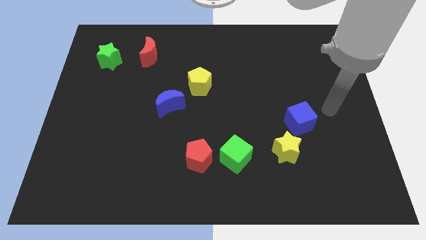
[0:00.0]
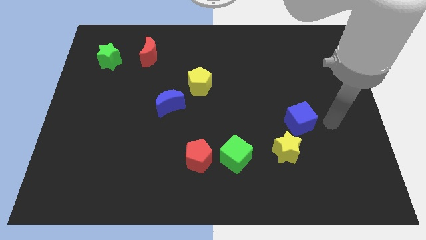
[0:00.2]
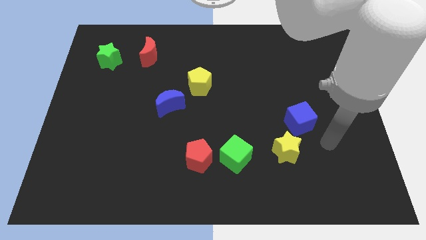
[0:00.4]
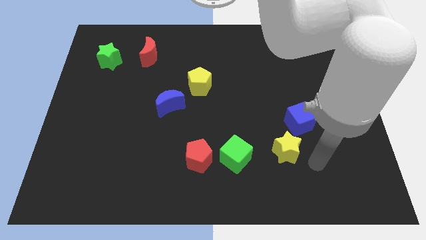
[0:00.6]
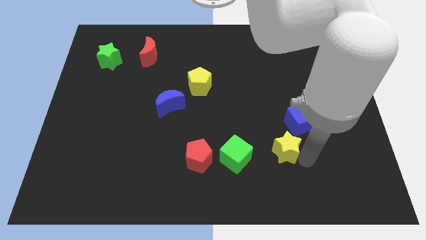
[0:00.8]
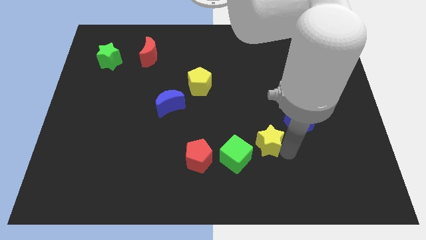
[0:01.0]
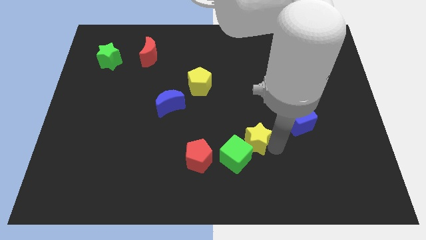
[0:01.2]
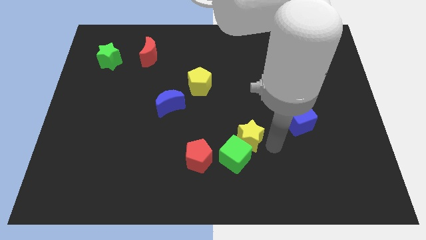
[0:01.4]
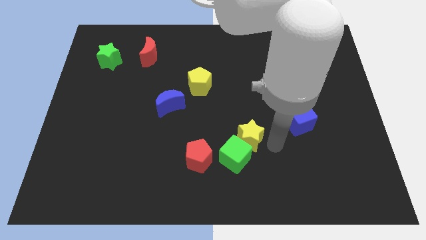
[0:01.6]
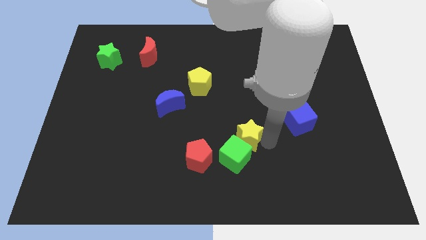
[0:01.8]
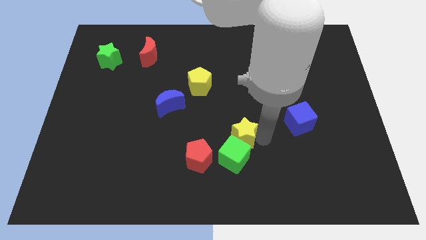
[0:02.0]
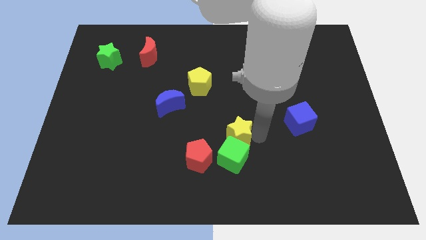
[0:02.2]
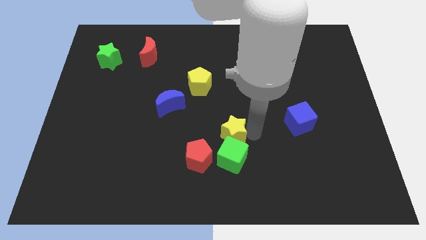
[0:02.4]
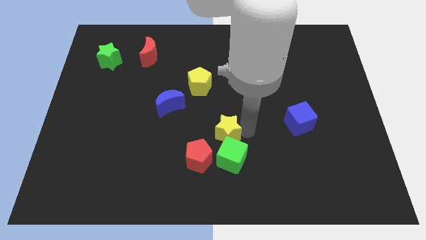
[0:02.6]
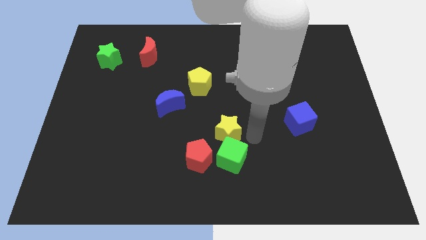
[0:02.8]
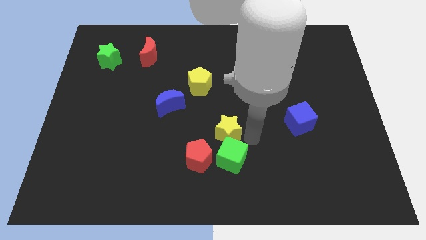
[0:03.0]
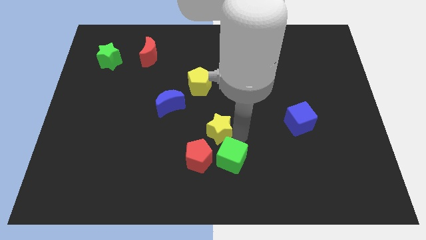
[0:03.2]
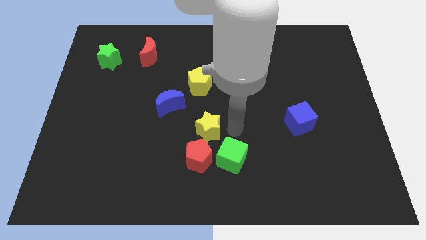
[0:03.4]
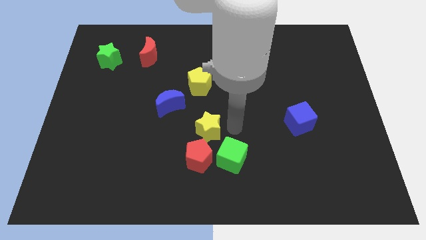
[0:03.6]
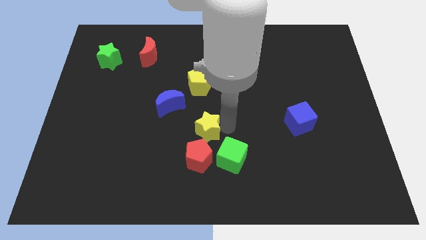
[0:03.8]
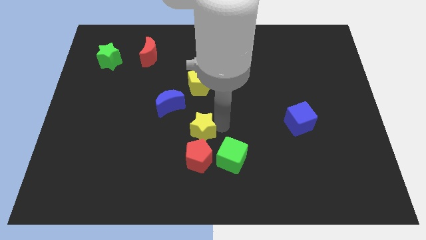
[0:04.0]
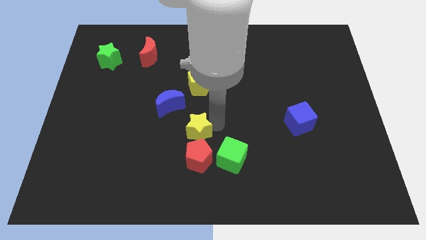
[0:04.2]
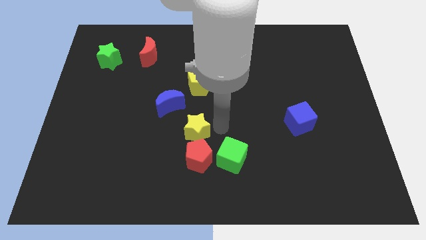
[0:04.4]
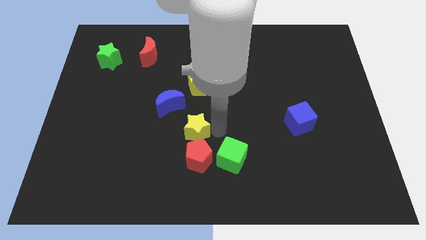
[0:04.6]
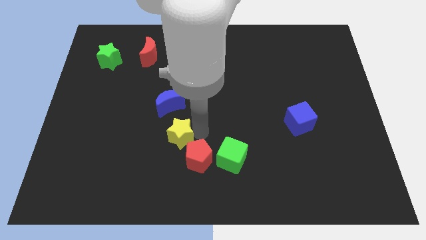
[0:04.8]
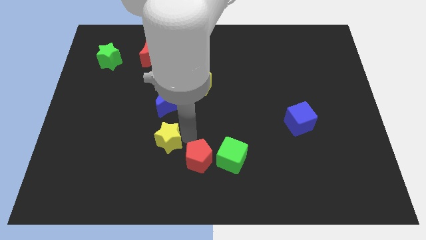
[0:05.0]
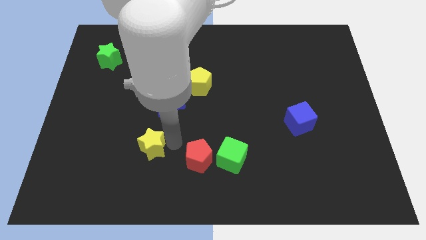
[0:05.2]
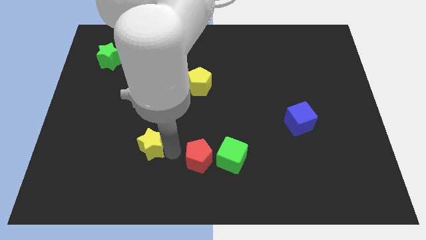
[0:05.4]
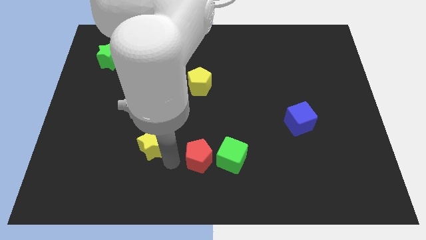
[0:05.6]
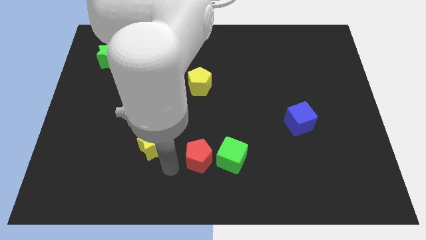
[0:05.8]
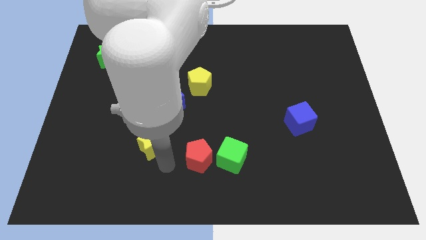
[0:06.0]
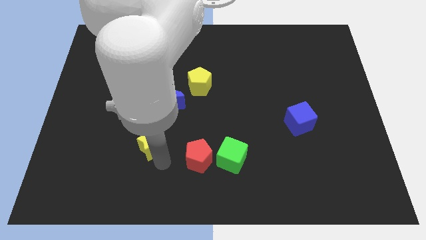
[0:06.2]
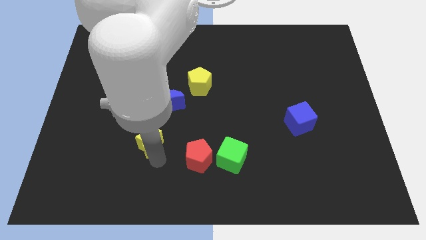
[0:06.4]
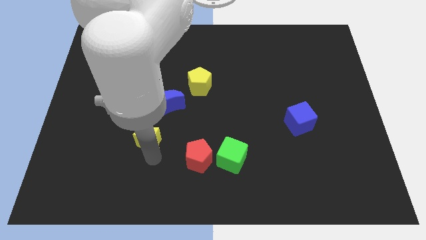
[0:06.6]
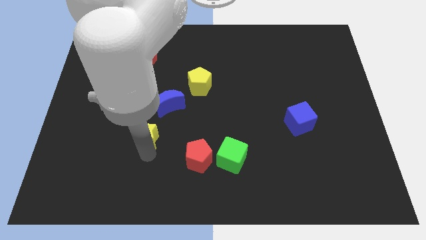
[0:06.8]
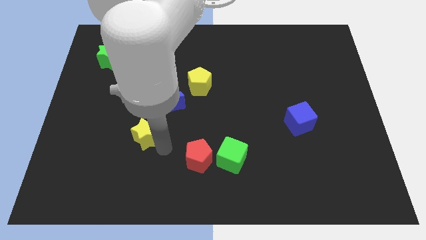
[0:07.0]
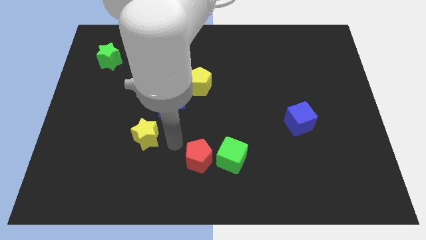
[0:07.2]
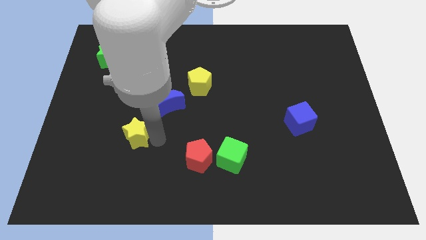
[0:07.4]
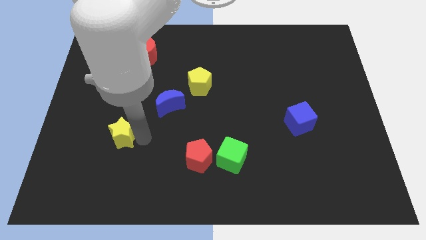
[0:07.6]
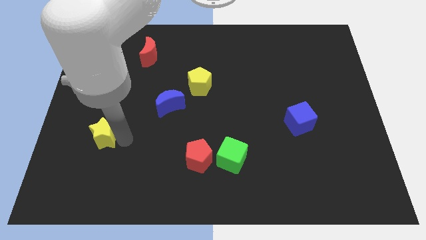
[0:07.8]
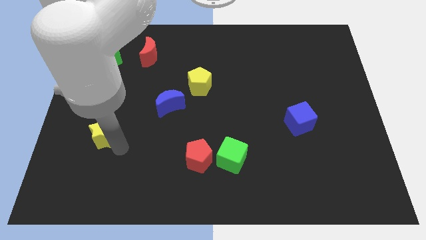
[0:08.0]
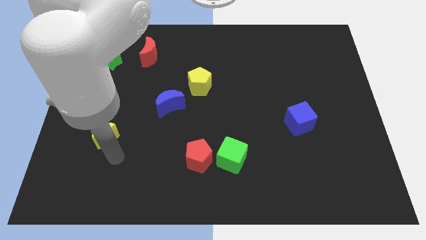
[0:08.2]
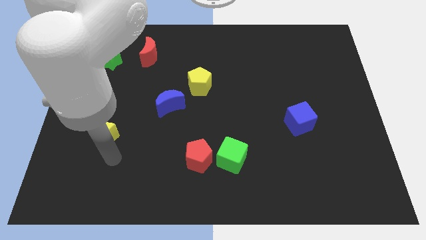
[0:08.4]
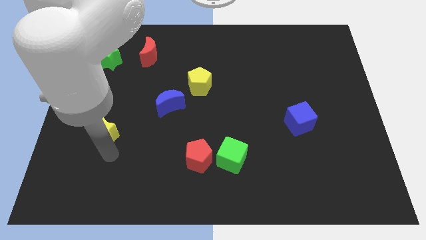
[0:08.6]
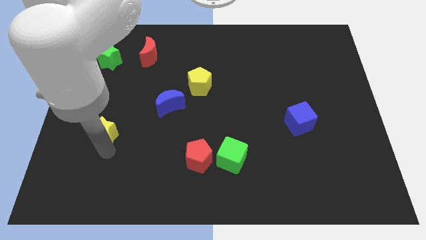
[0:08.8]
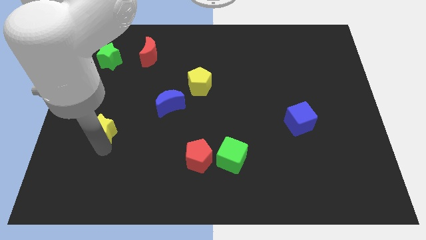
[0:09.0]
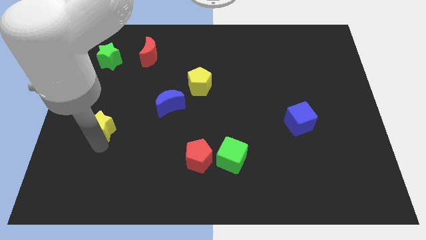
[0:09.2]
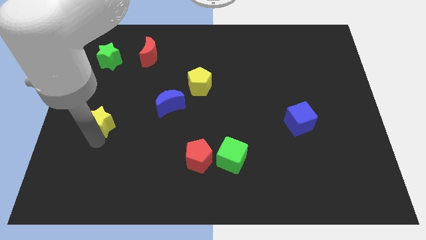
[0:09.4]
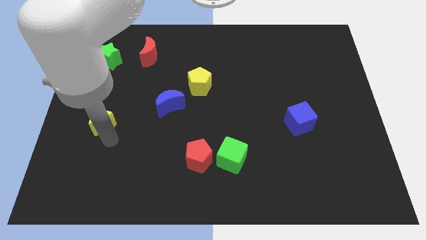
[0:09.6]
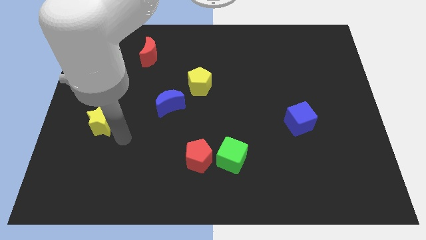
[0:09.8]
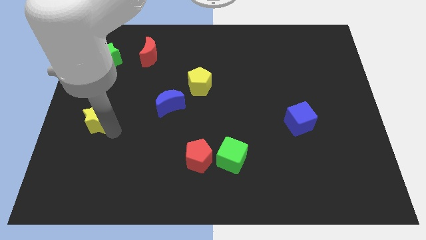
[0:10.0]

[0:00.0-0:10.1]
push the yellow star to the center left

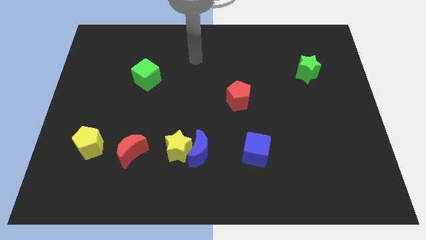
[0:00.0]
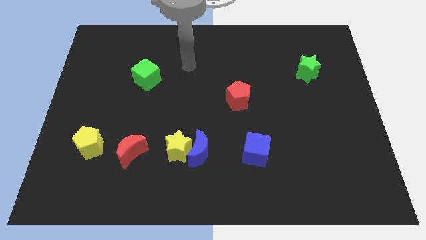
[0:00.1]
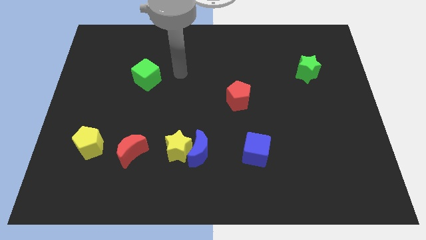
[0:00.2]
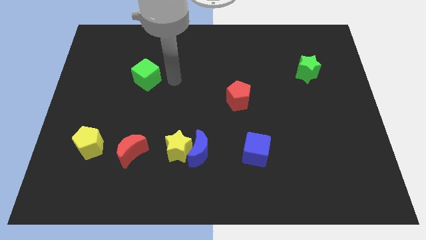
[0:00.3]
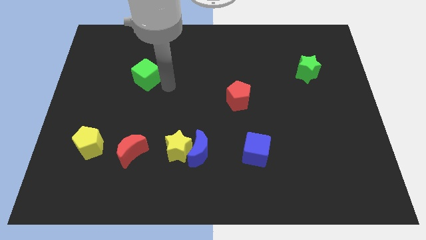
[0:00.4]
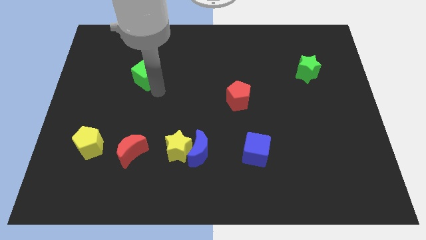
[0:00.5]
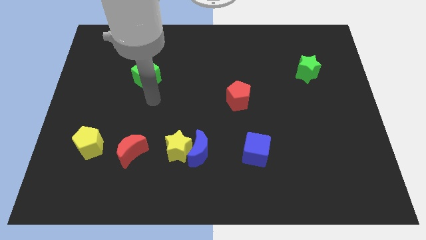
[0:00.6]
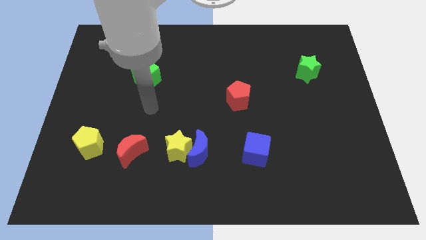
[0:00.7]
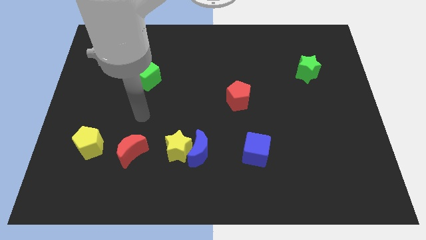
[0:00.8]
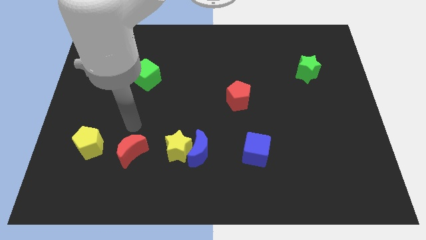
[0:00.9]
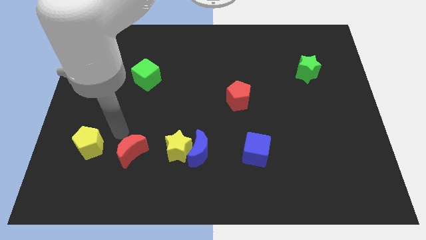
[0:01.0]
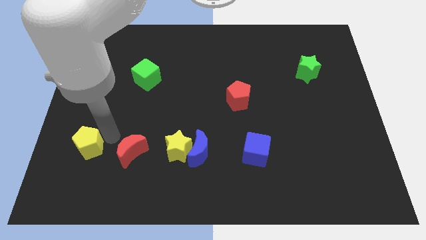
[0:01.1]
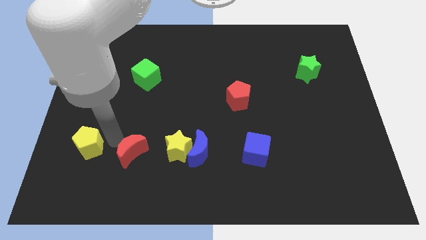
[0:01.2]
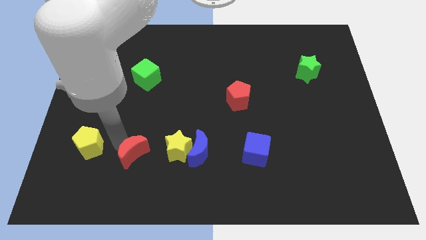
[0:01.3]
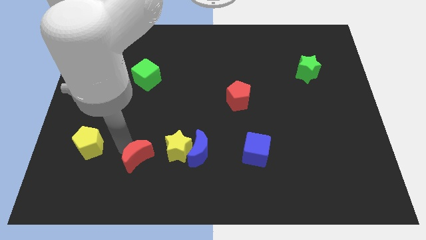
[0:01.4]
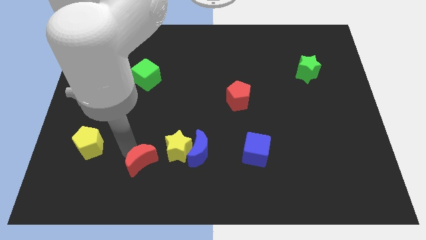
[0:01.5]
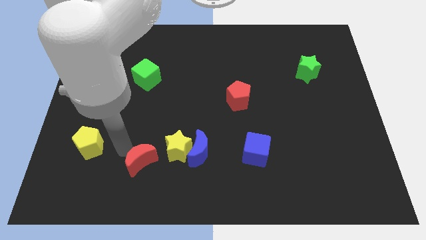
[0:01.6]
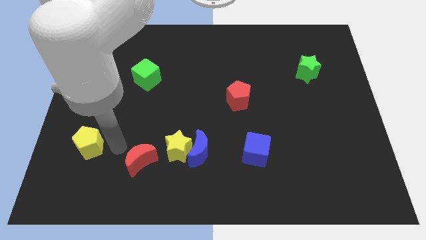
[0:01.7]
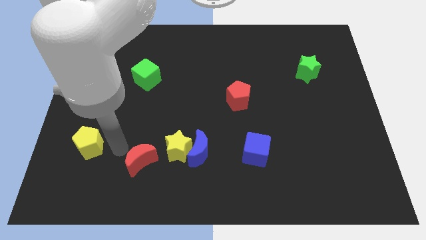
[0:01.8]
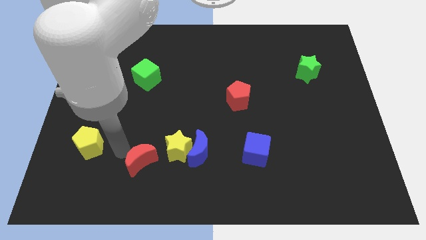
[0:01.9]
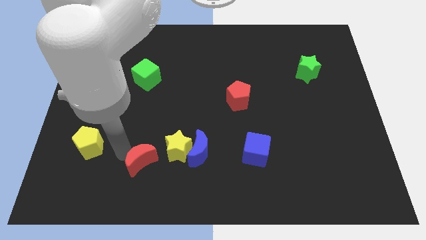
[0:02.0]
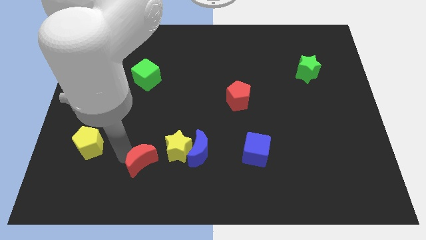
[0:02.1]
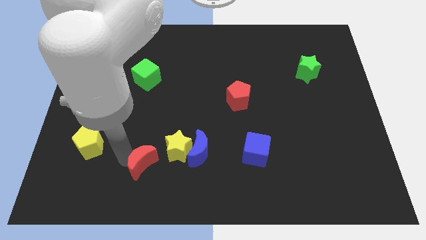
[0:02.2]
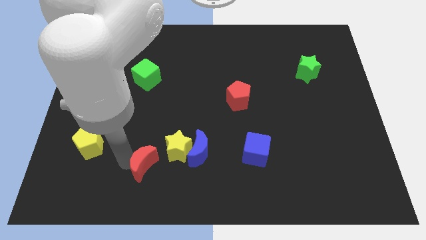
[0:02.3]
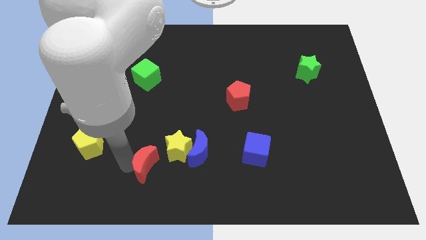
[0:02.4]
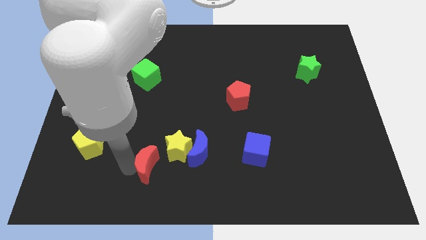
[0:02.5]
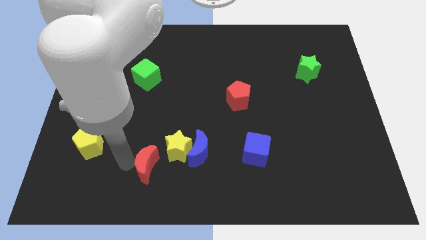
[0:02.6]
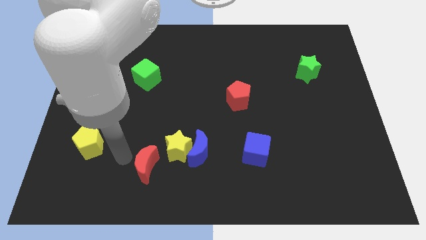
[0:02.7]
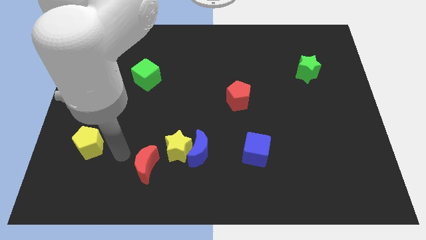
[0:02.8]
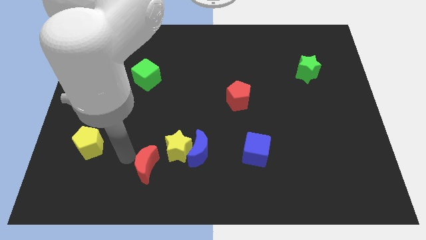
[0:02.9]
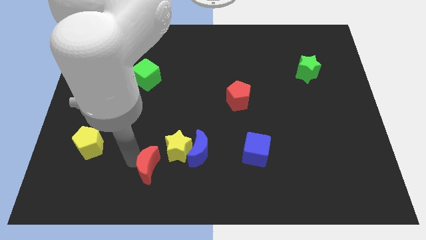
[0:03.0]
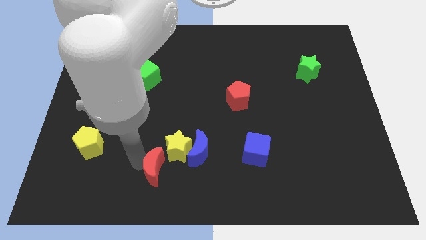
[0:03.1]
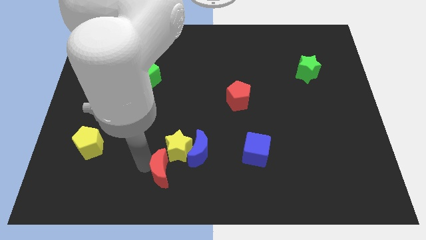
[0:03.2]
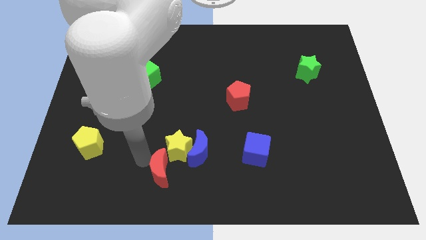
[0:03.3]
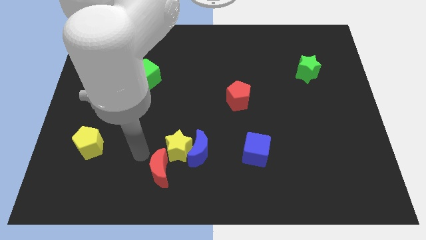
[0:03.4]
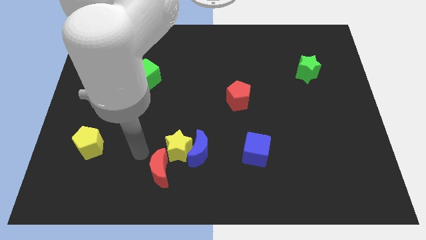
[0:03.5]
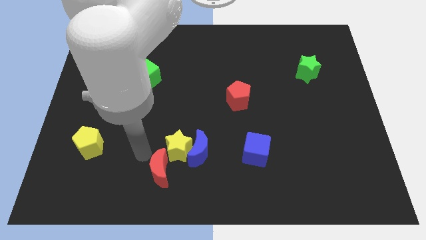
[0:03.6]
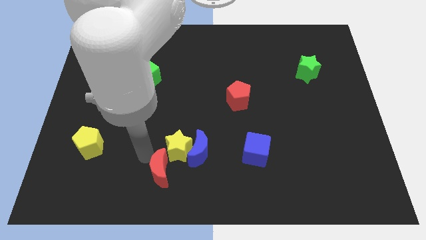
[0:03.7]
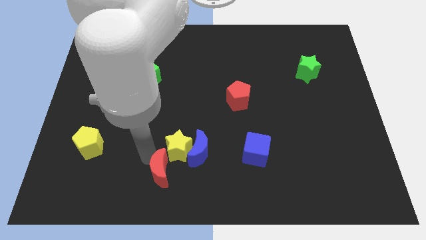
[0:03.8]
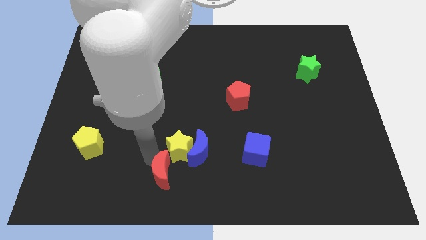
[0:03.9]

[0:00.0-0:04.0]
slide the red moon to the bottom side
